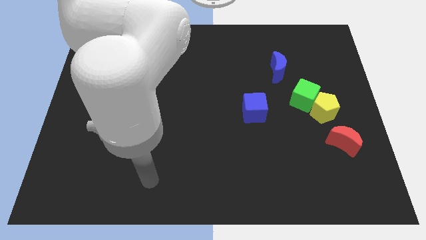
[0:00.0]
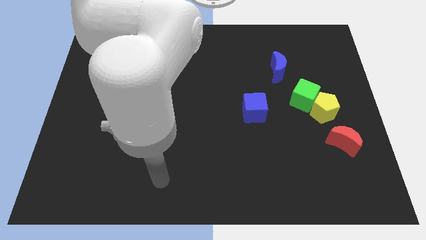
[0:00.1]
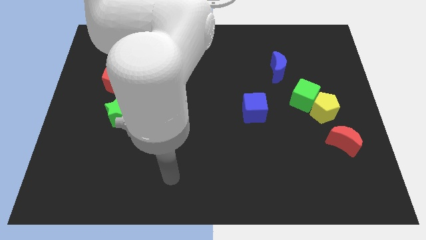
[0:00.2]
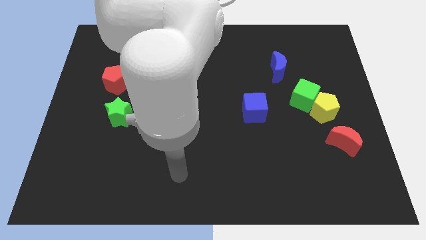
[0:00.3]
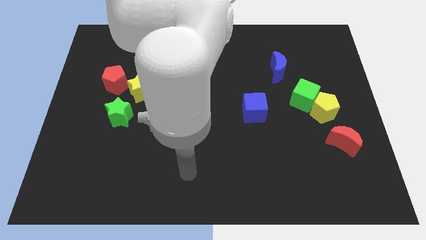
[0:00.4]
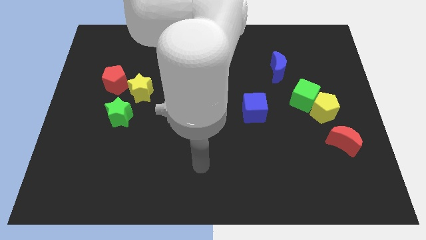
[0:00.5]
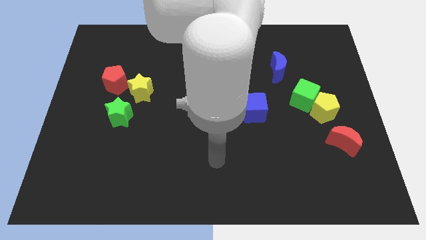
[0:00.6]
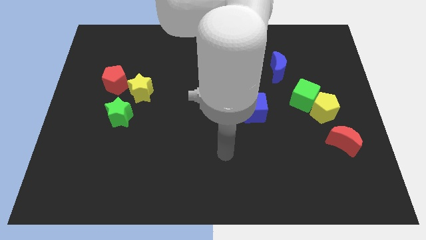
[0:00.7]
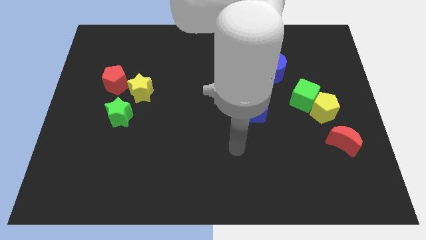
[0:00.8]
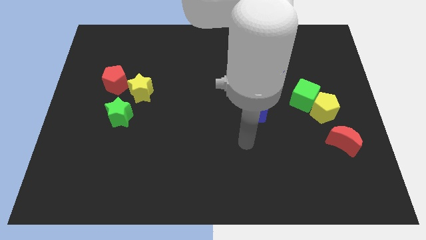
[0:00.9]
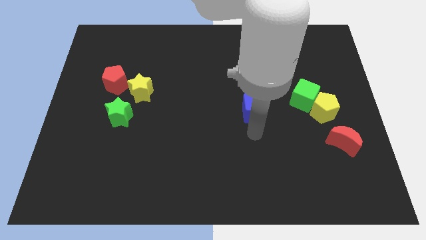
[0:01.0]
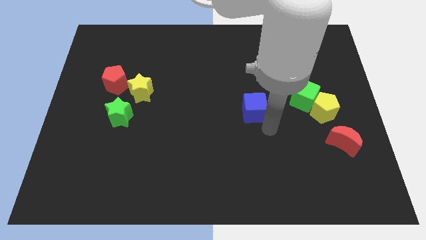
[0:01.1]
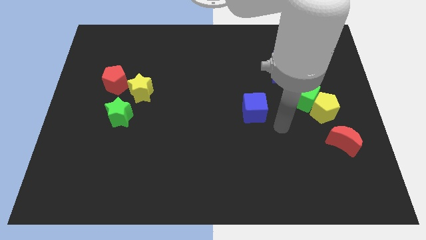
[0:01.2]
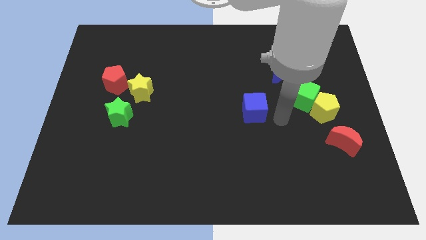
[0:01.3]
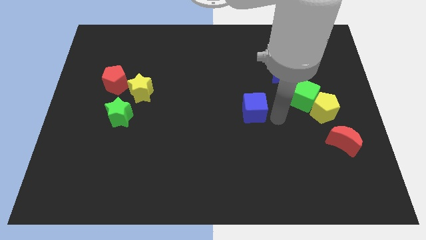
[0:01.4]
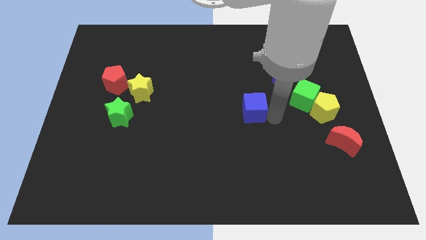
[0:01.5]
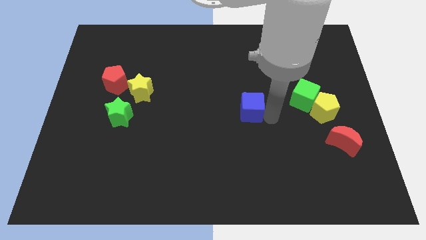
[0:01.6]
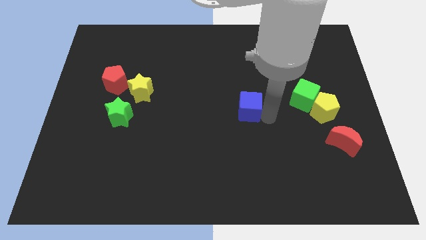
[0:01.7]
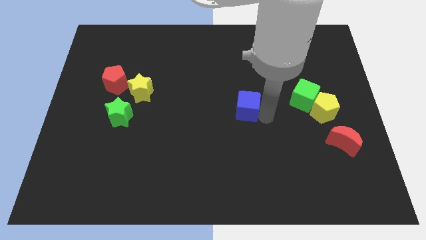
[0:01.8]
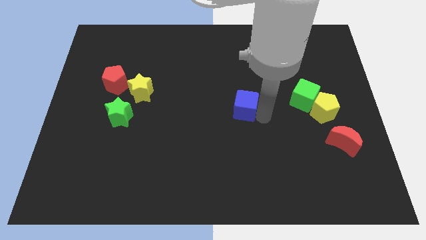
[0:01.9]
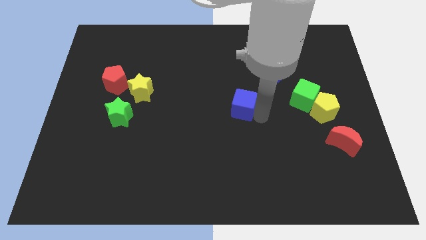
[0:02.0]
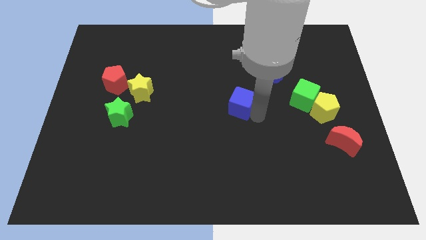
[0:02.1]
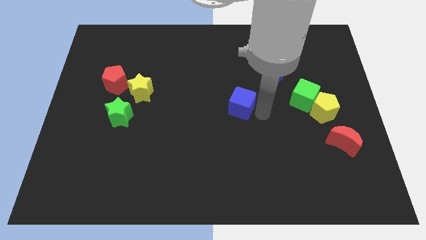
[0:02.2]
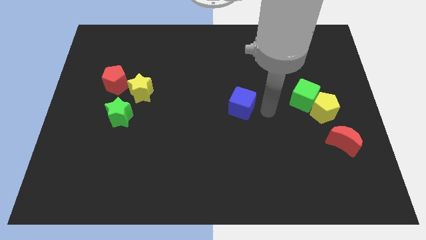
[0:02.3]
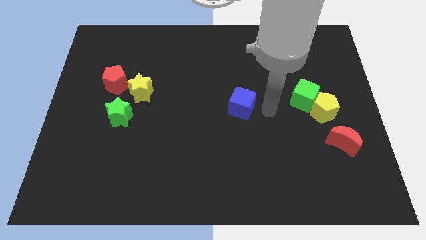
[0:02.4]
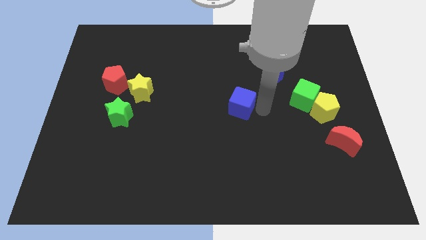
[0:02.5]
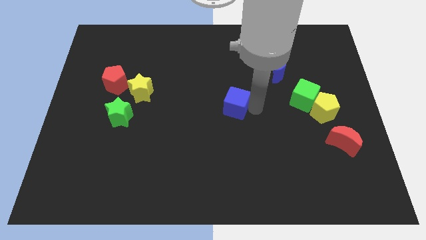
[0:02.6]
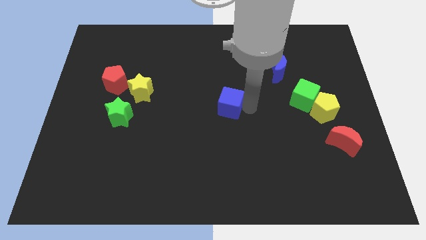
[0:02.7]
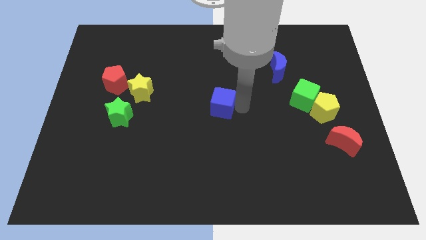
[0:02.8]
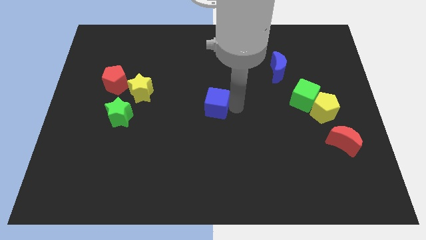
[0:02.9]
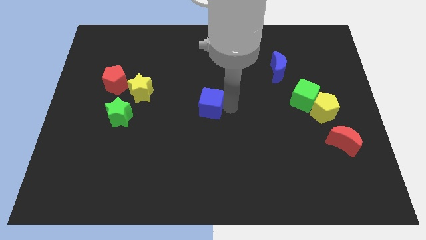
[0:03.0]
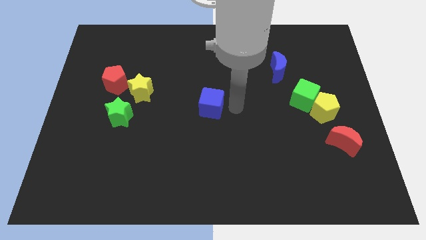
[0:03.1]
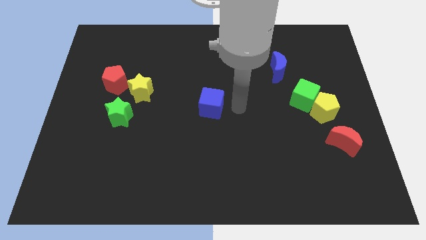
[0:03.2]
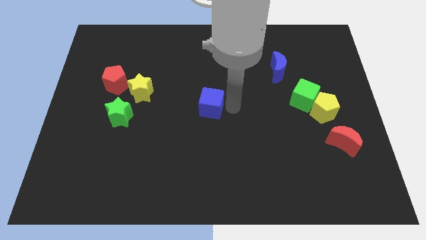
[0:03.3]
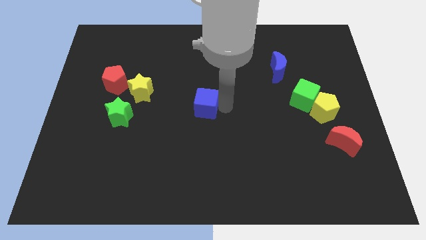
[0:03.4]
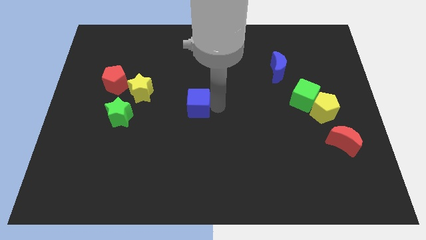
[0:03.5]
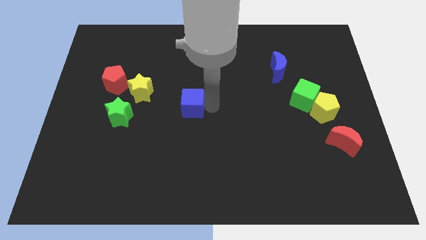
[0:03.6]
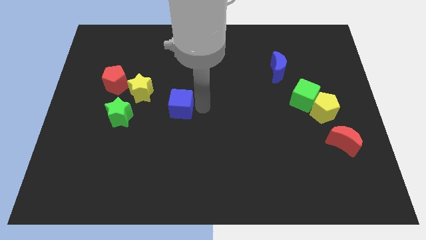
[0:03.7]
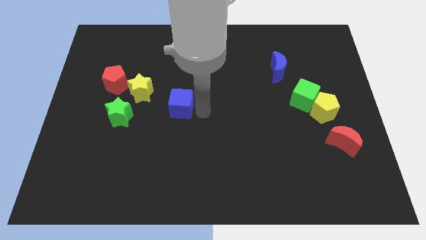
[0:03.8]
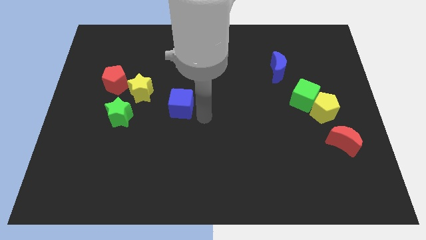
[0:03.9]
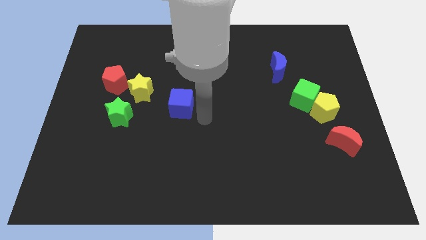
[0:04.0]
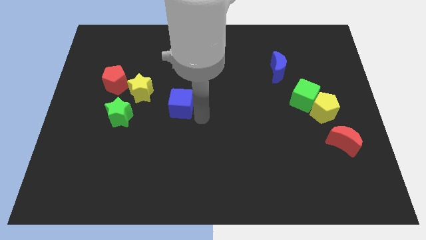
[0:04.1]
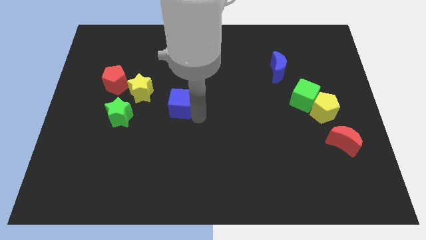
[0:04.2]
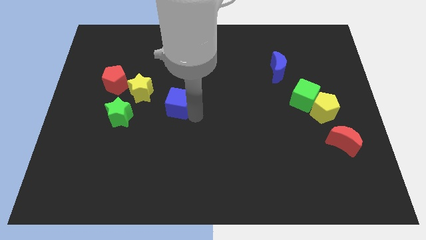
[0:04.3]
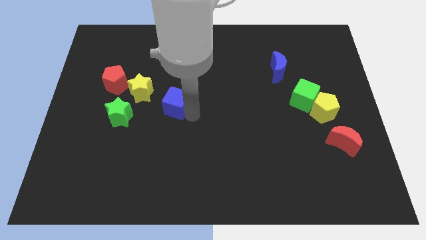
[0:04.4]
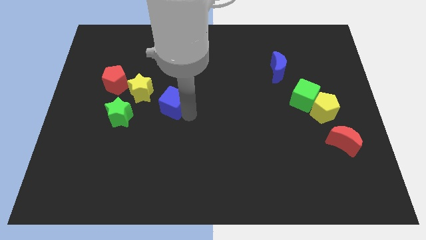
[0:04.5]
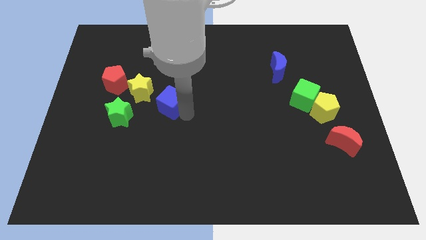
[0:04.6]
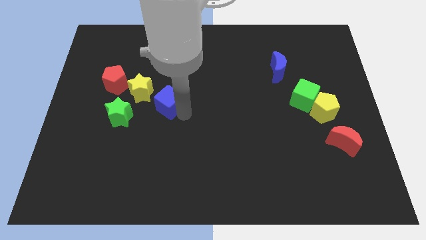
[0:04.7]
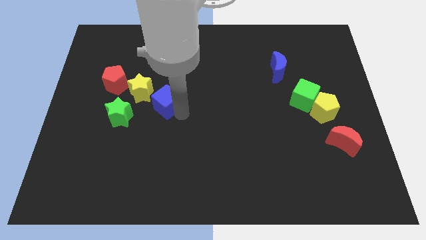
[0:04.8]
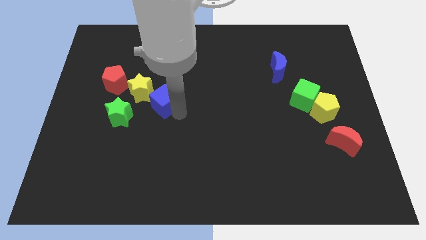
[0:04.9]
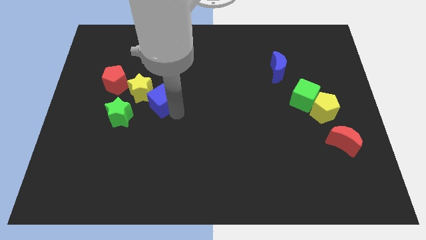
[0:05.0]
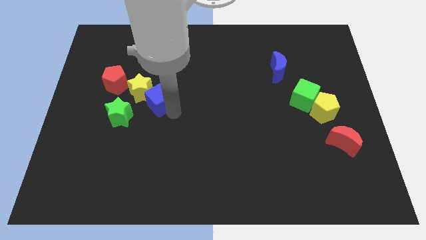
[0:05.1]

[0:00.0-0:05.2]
slide the blue cube to the yellow star

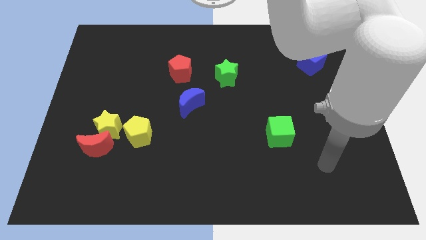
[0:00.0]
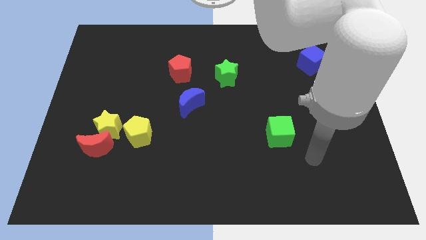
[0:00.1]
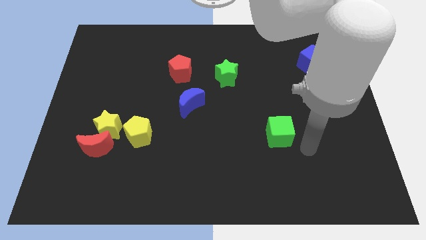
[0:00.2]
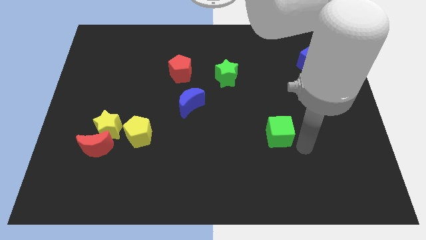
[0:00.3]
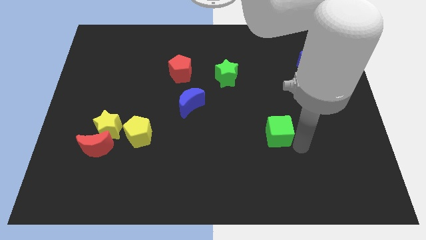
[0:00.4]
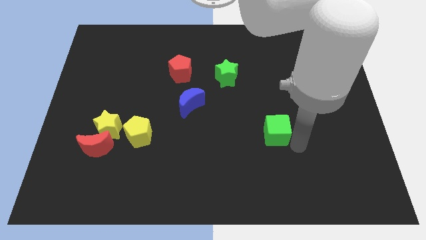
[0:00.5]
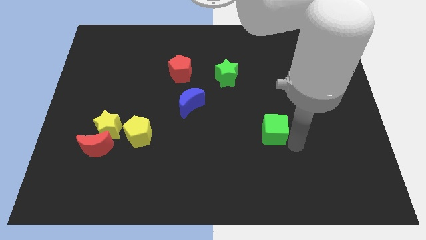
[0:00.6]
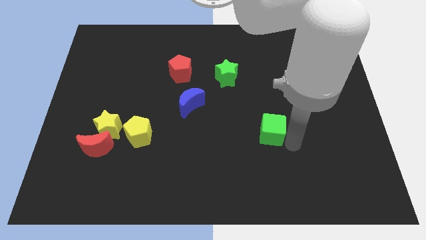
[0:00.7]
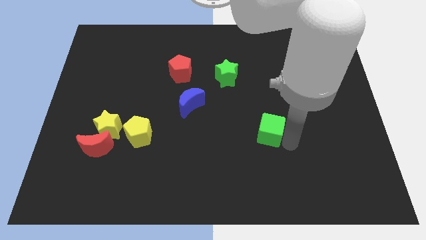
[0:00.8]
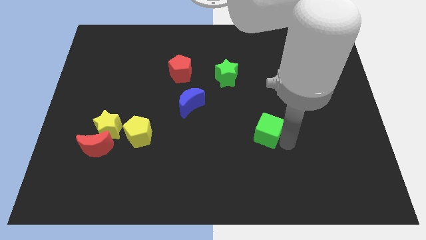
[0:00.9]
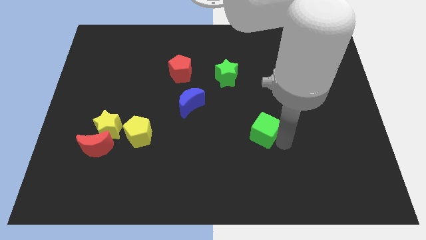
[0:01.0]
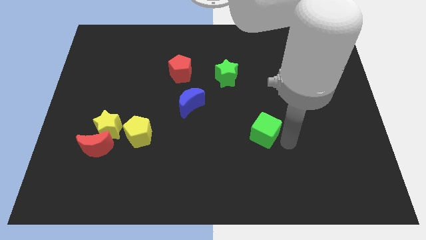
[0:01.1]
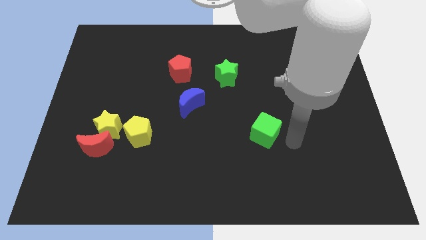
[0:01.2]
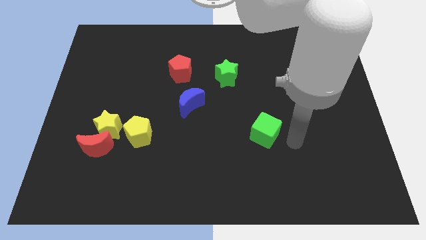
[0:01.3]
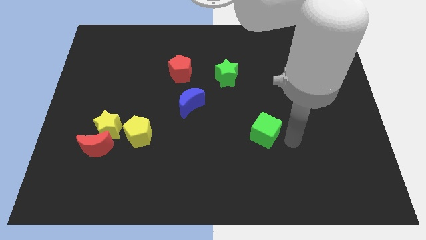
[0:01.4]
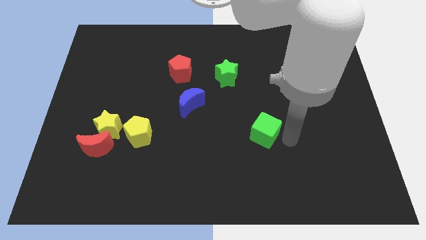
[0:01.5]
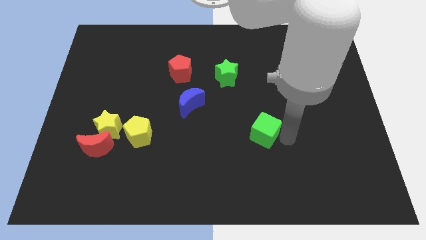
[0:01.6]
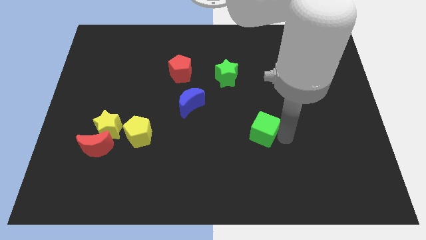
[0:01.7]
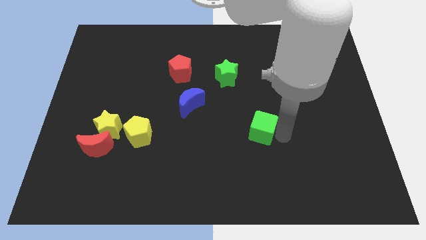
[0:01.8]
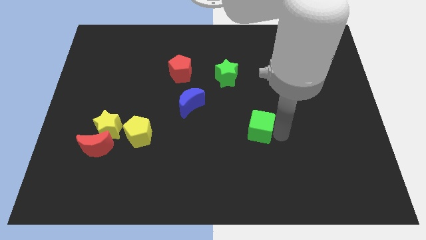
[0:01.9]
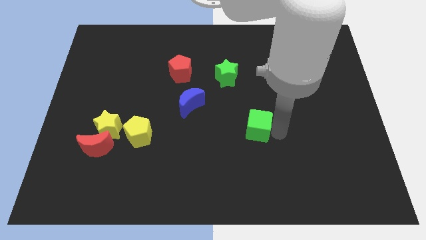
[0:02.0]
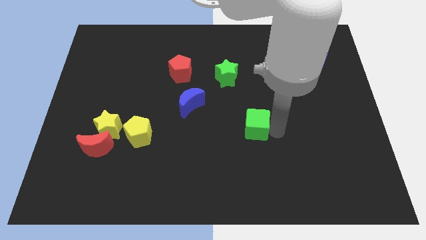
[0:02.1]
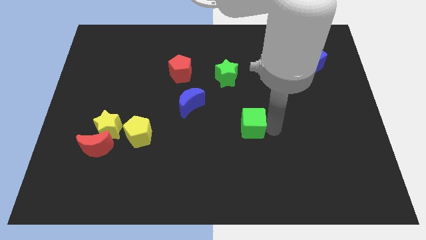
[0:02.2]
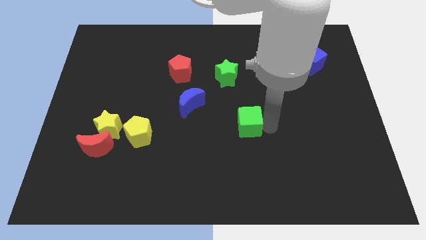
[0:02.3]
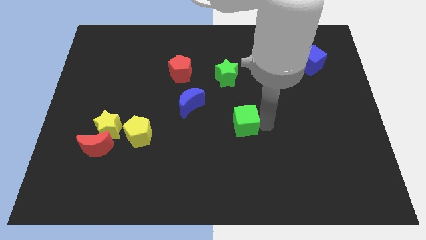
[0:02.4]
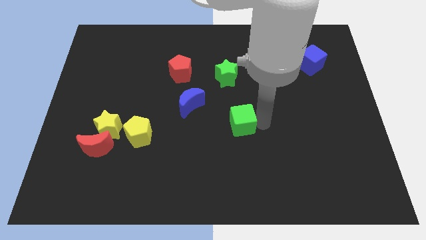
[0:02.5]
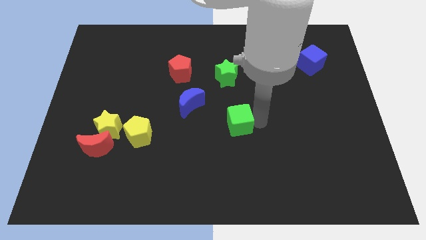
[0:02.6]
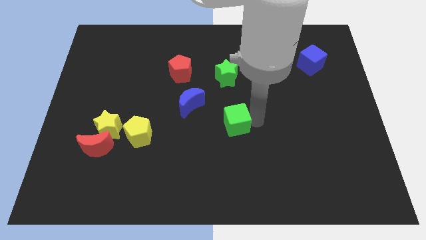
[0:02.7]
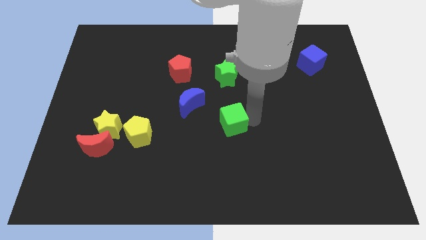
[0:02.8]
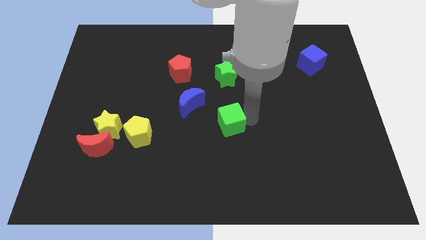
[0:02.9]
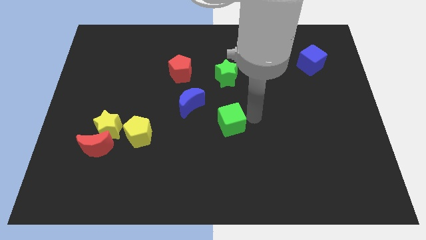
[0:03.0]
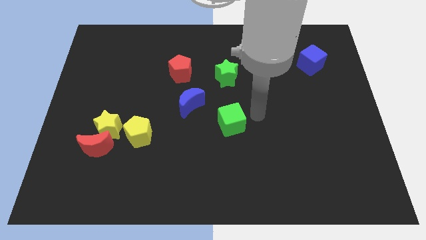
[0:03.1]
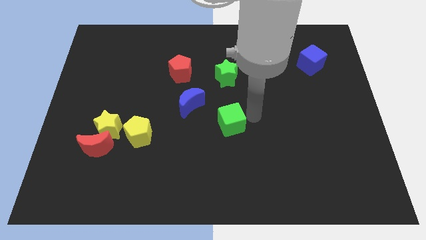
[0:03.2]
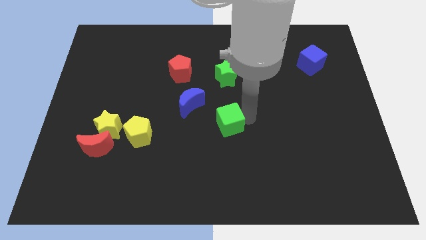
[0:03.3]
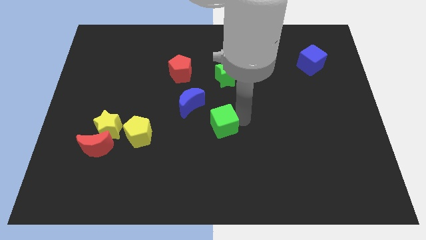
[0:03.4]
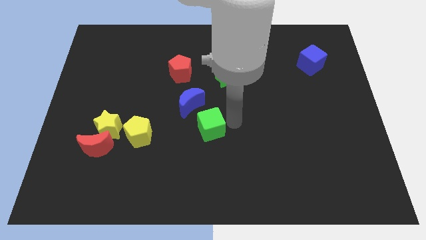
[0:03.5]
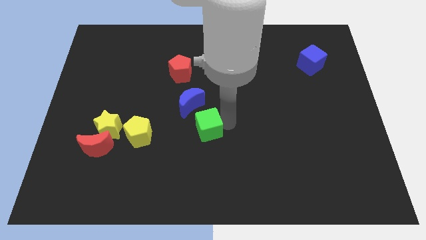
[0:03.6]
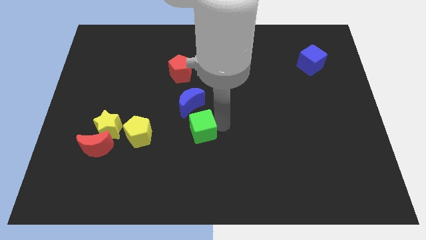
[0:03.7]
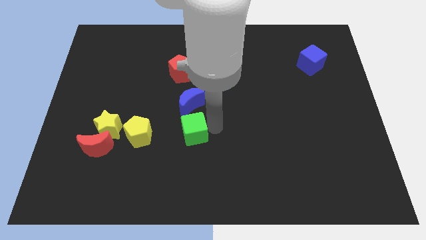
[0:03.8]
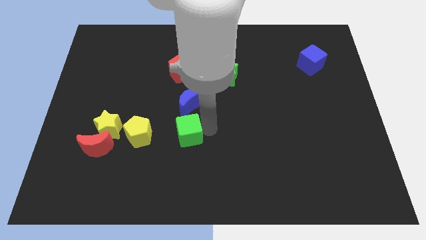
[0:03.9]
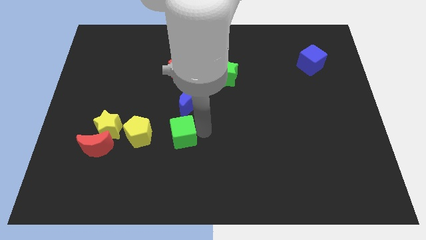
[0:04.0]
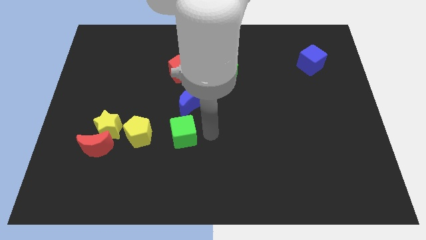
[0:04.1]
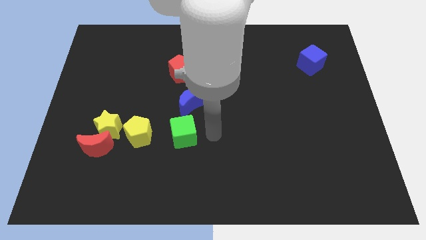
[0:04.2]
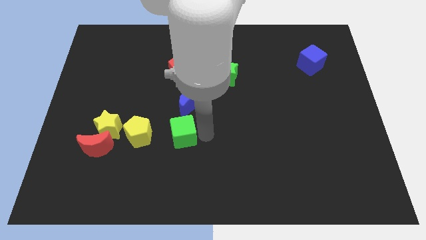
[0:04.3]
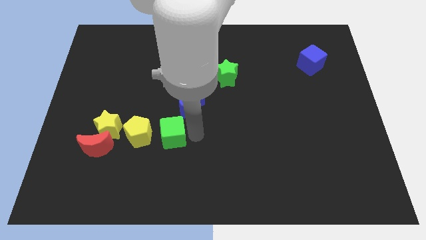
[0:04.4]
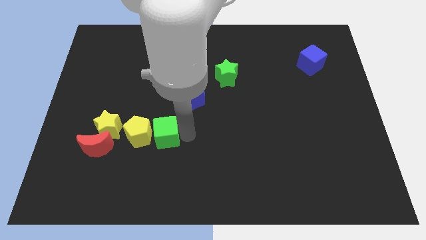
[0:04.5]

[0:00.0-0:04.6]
move the green cube next to the yellow pentagon
